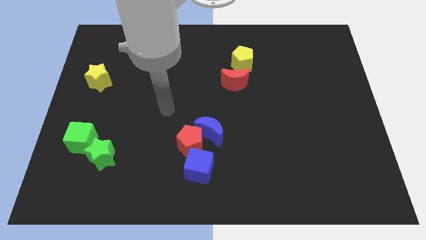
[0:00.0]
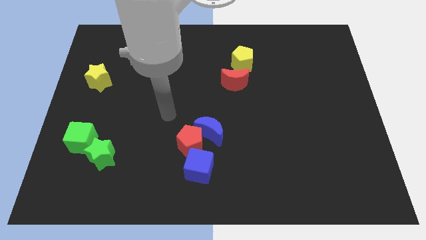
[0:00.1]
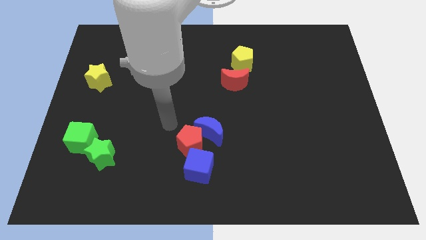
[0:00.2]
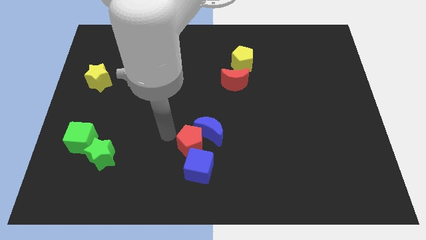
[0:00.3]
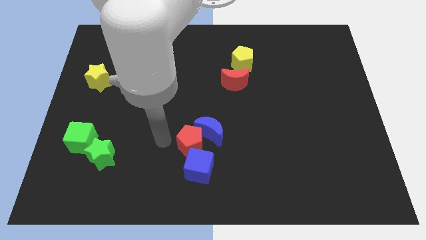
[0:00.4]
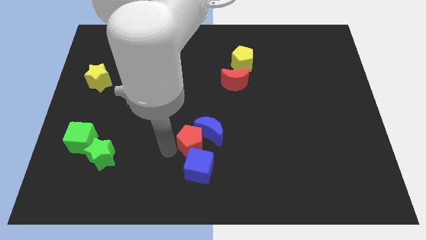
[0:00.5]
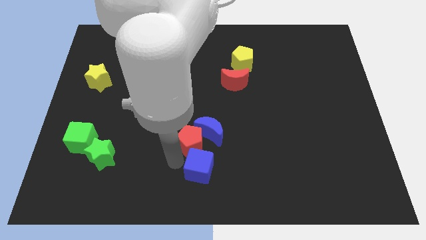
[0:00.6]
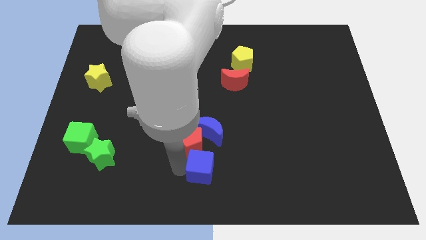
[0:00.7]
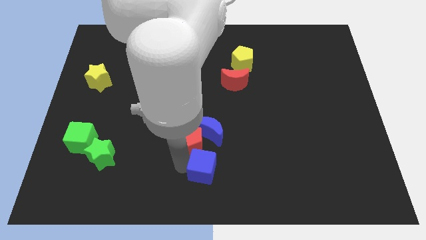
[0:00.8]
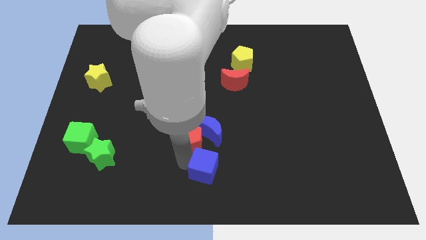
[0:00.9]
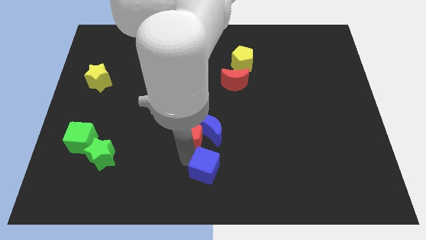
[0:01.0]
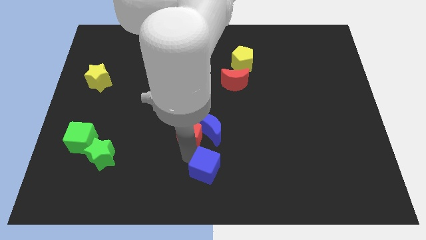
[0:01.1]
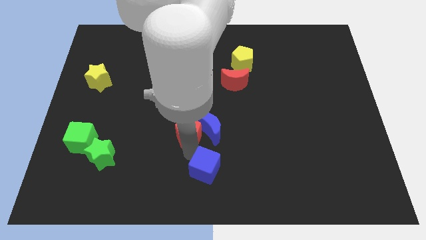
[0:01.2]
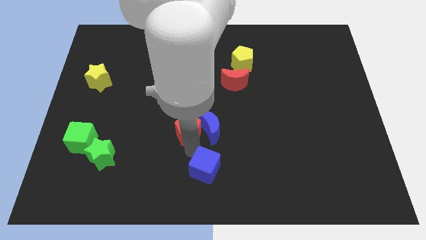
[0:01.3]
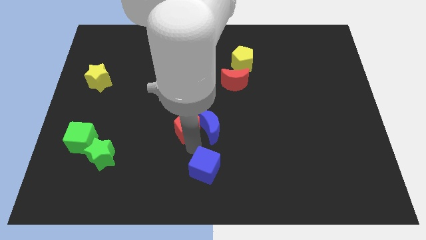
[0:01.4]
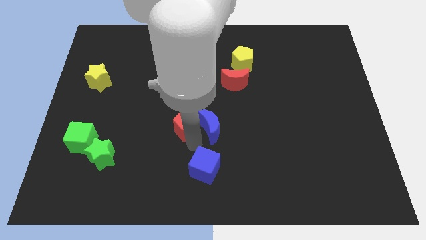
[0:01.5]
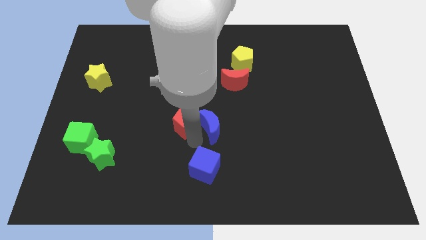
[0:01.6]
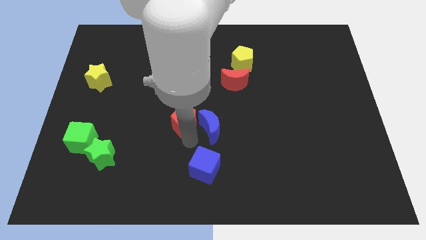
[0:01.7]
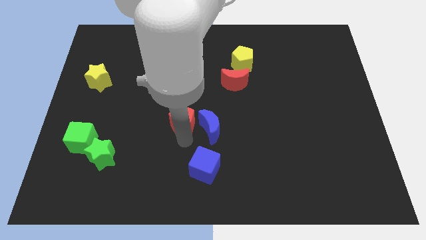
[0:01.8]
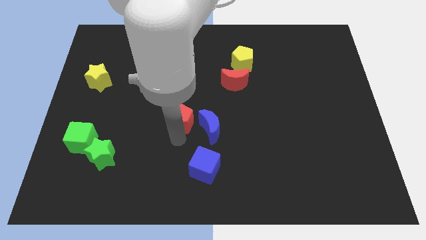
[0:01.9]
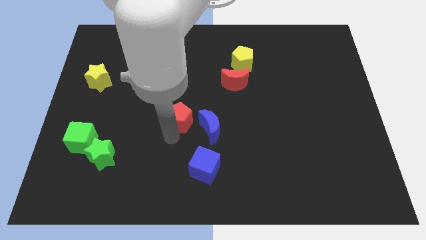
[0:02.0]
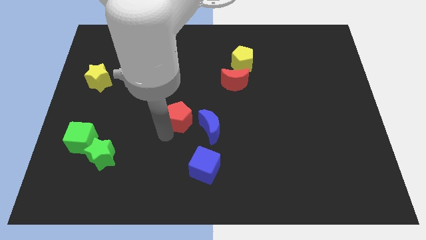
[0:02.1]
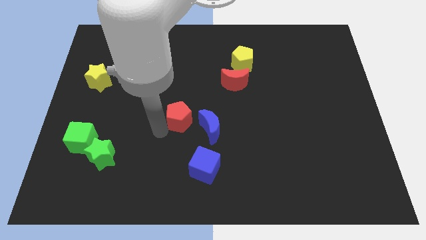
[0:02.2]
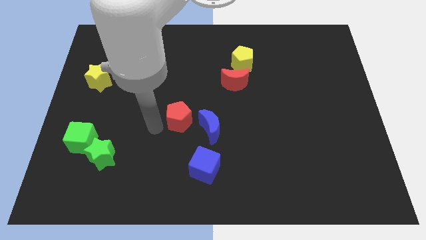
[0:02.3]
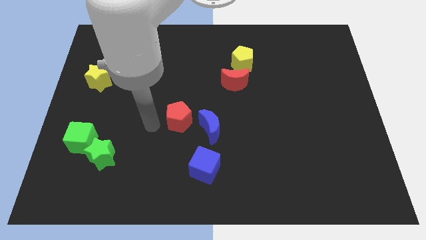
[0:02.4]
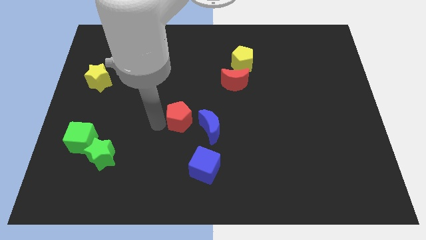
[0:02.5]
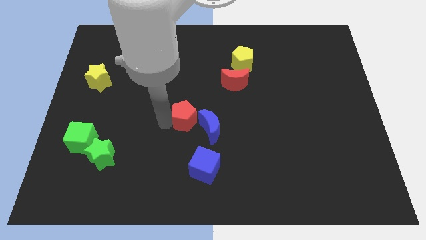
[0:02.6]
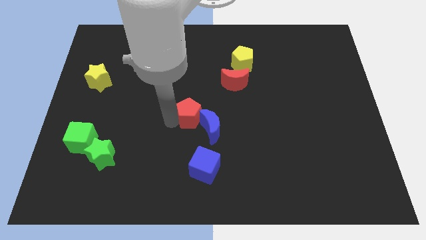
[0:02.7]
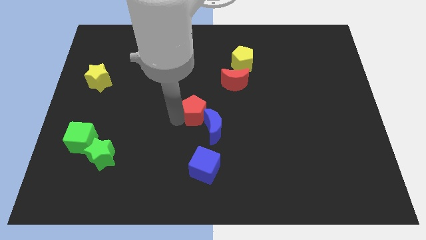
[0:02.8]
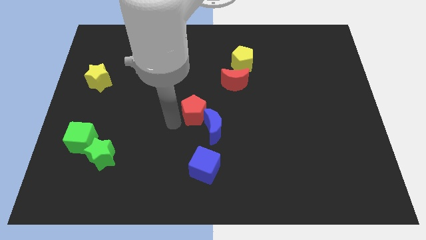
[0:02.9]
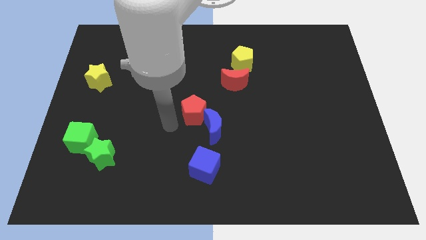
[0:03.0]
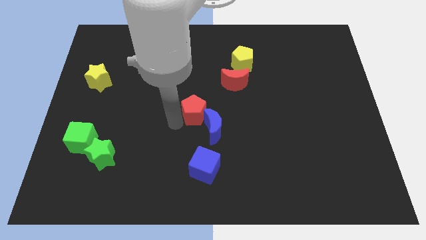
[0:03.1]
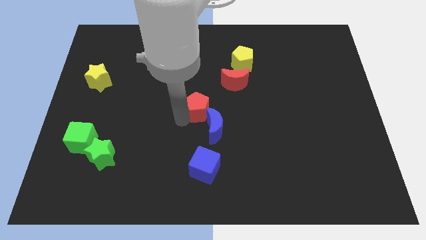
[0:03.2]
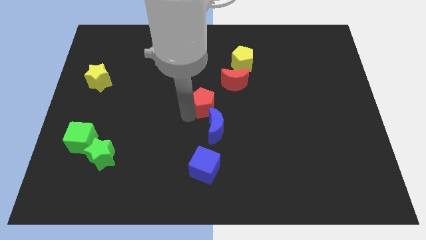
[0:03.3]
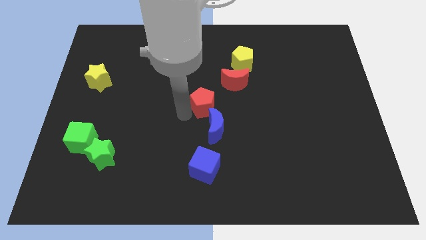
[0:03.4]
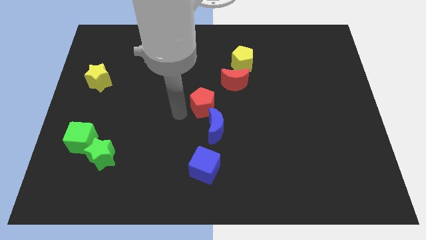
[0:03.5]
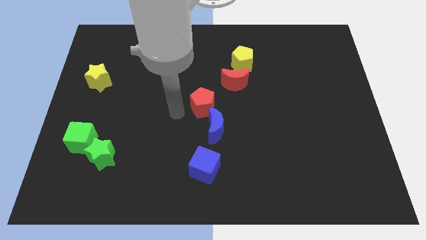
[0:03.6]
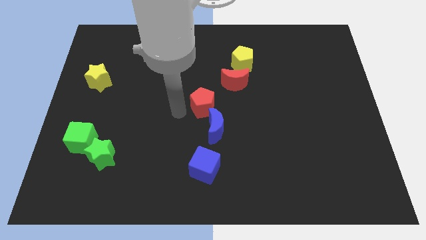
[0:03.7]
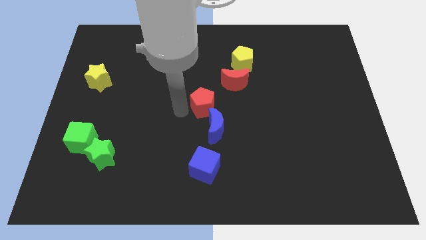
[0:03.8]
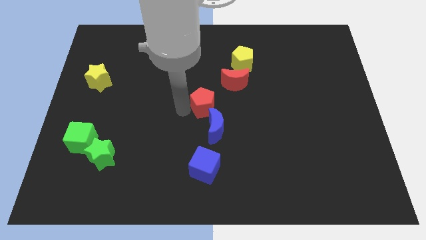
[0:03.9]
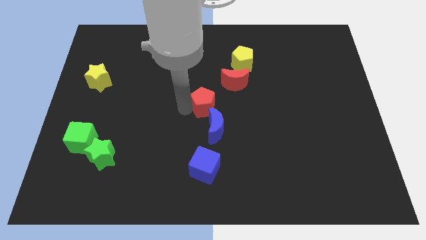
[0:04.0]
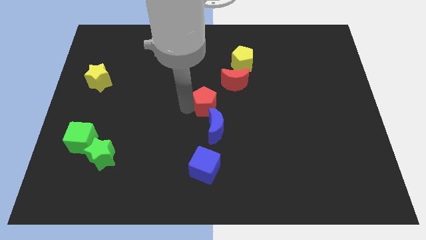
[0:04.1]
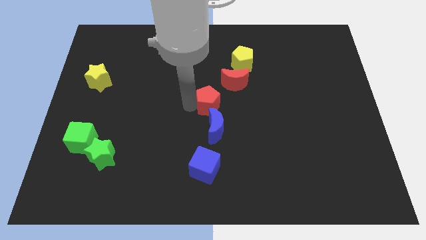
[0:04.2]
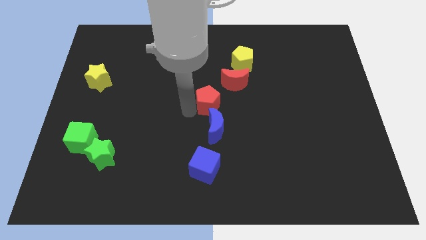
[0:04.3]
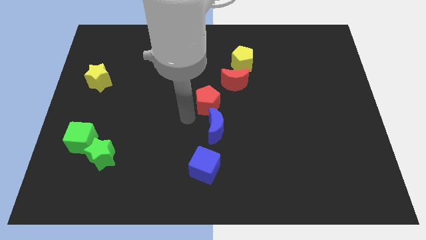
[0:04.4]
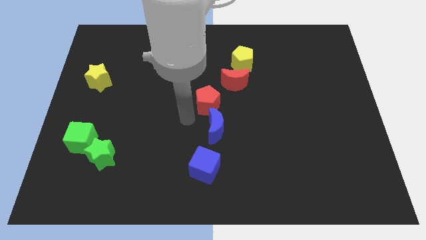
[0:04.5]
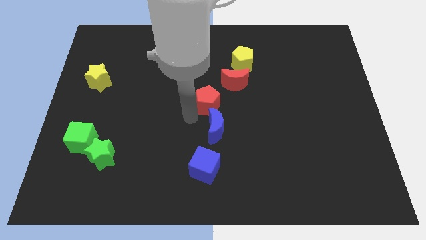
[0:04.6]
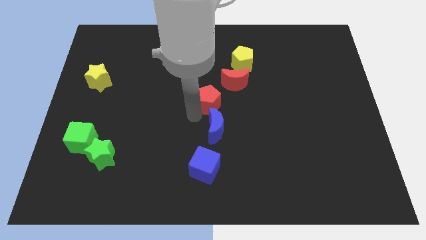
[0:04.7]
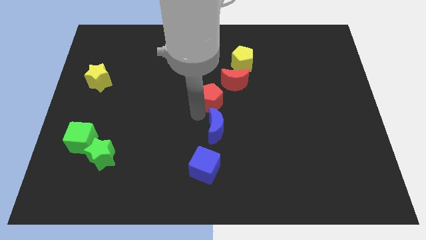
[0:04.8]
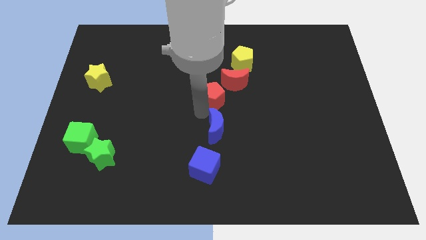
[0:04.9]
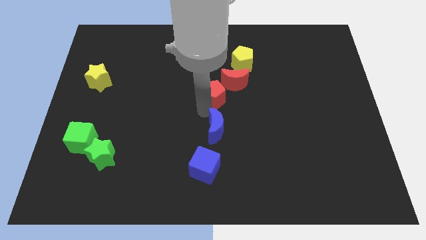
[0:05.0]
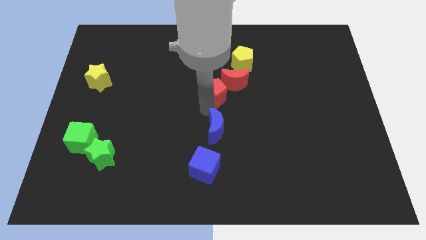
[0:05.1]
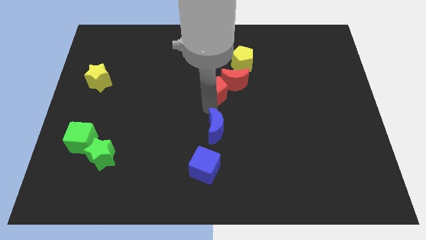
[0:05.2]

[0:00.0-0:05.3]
put the red pentagon close to the red moon

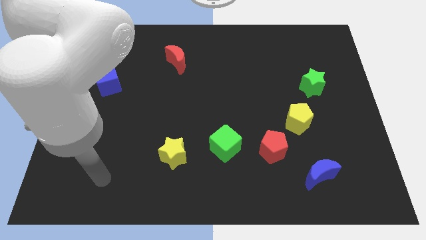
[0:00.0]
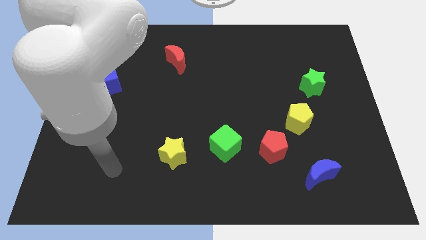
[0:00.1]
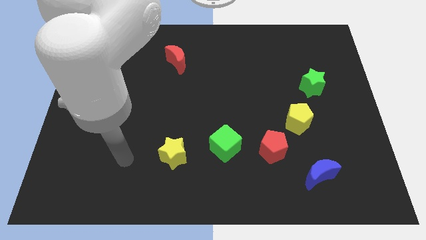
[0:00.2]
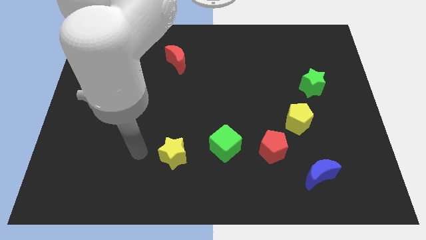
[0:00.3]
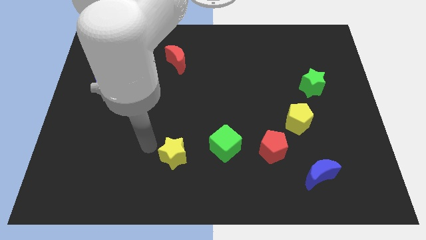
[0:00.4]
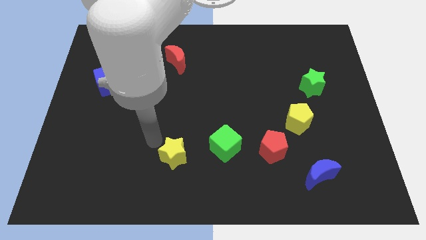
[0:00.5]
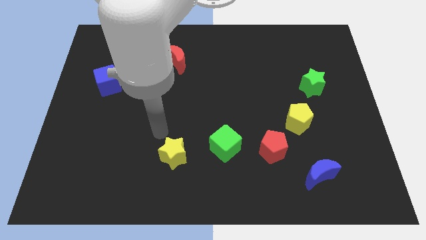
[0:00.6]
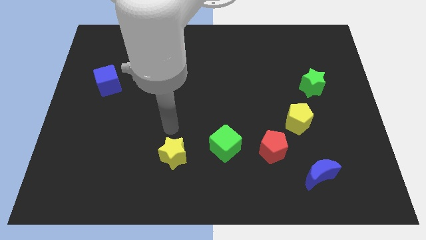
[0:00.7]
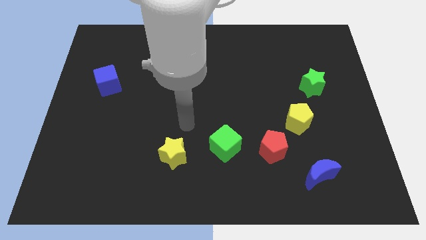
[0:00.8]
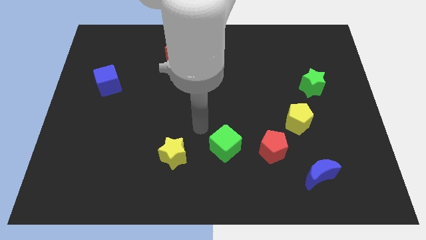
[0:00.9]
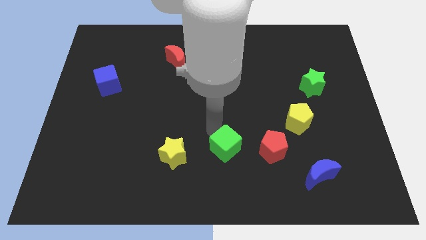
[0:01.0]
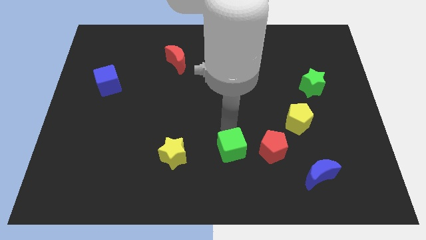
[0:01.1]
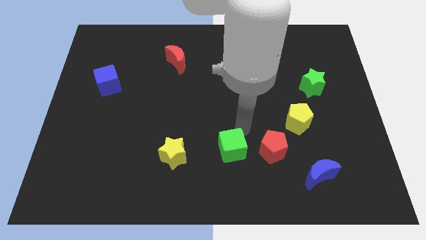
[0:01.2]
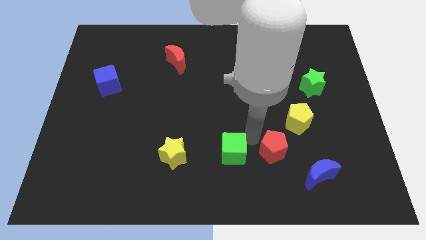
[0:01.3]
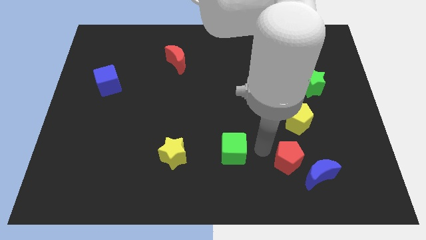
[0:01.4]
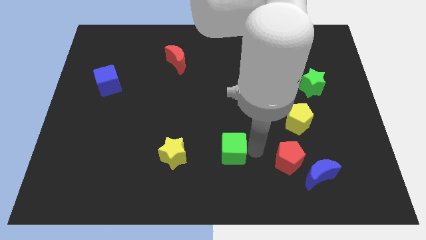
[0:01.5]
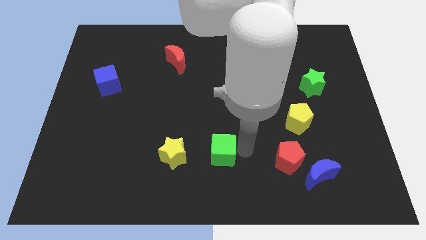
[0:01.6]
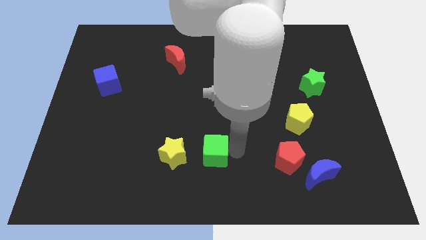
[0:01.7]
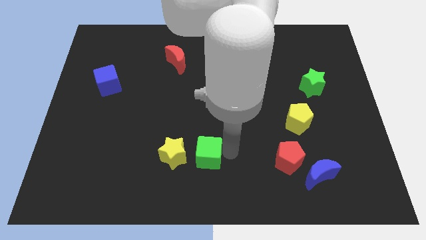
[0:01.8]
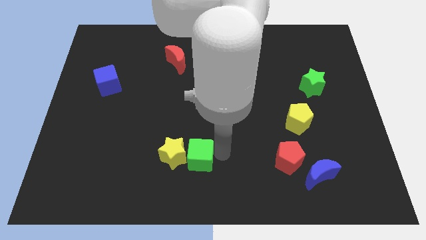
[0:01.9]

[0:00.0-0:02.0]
put the green cube to the yellow star
